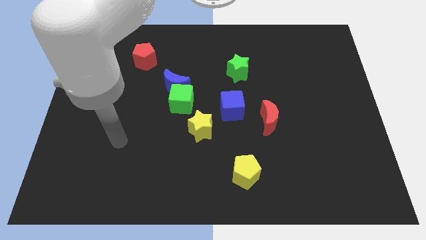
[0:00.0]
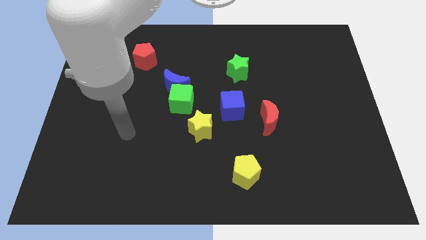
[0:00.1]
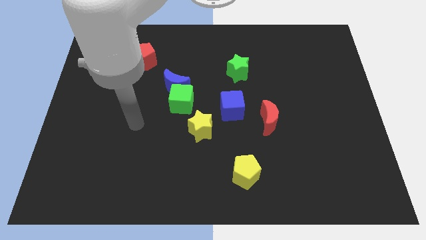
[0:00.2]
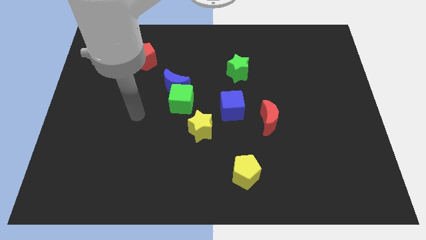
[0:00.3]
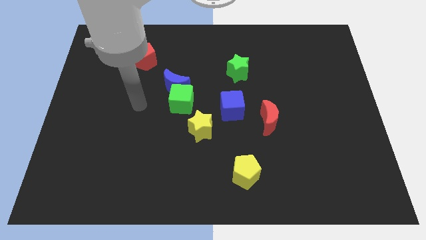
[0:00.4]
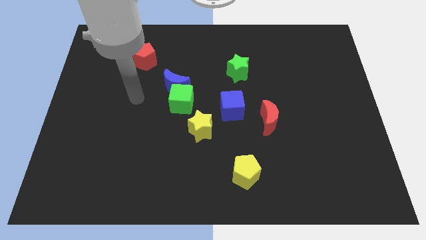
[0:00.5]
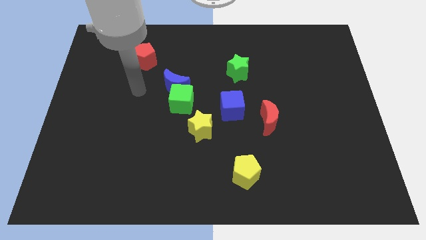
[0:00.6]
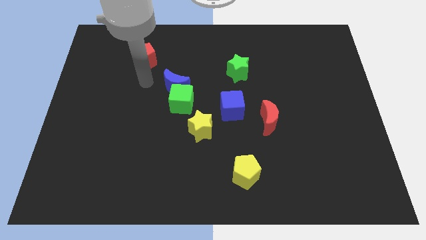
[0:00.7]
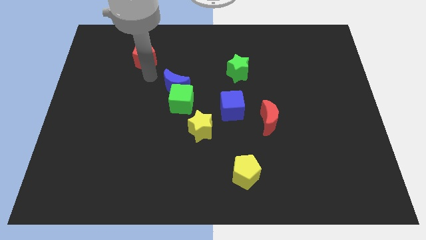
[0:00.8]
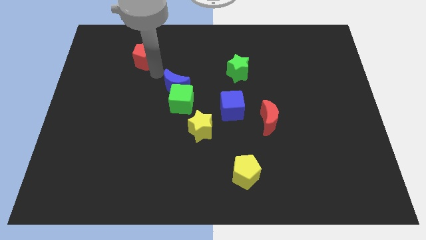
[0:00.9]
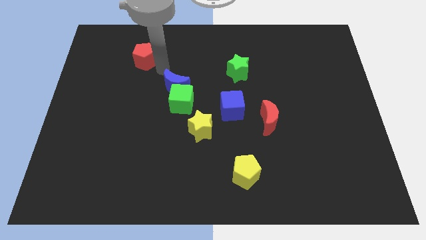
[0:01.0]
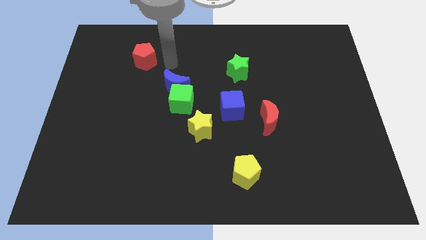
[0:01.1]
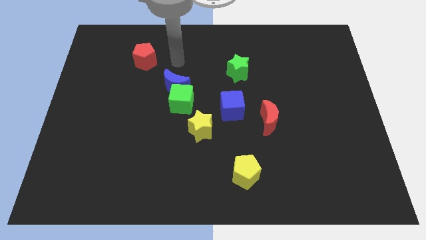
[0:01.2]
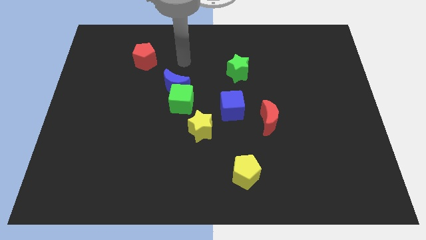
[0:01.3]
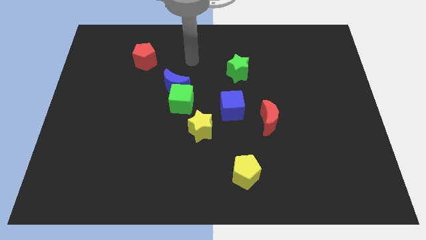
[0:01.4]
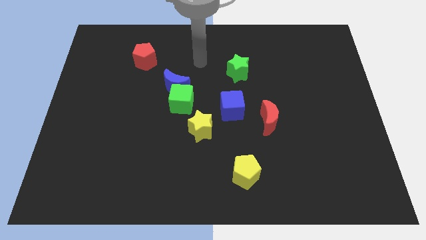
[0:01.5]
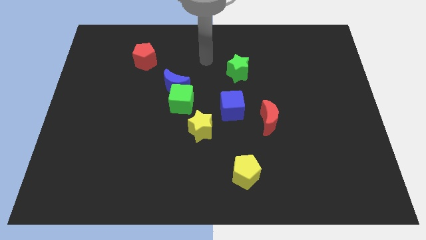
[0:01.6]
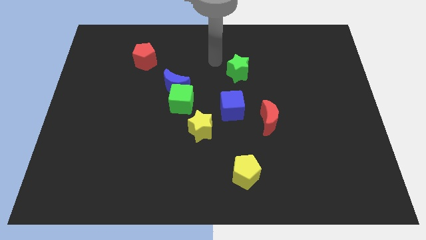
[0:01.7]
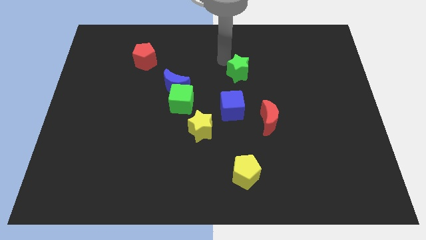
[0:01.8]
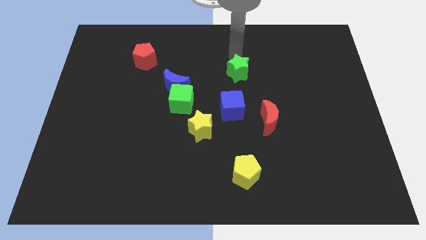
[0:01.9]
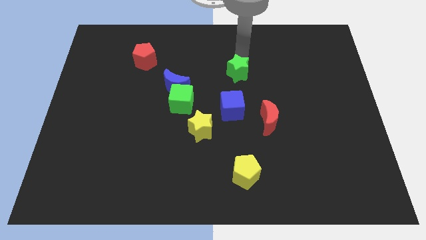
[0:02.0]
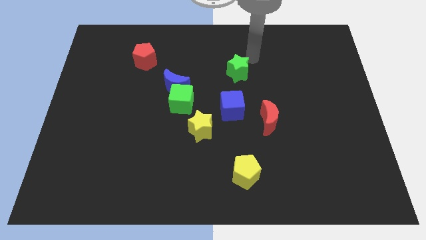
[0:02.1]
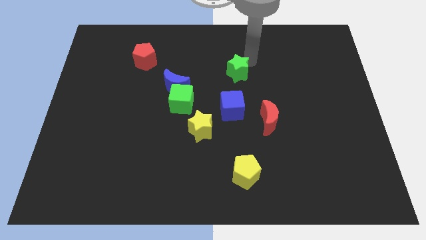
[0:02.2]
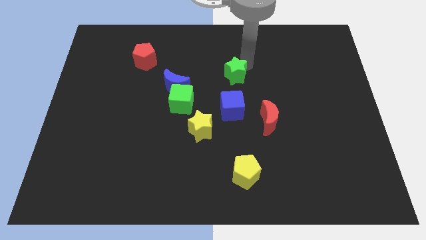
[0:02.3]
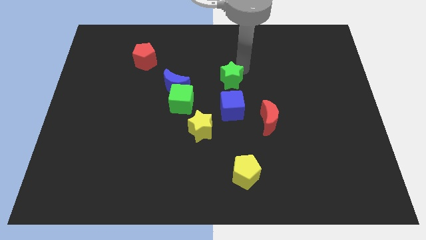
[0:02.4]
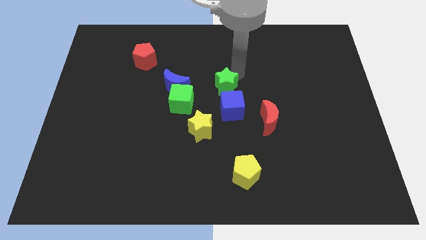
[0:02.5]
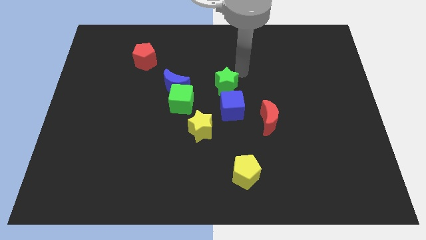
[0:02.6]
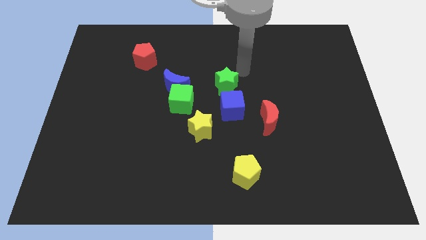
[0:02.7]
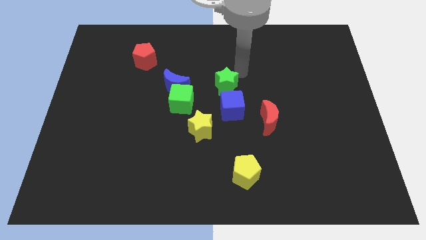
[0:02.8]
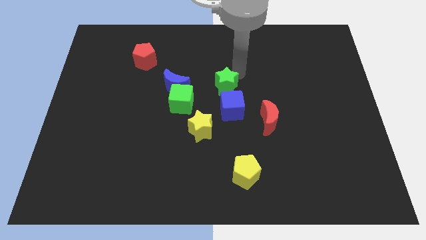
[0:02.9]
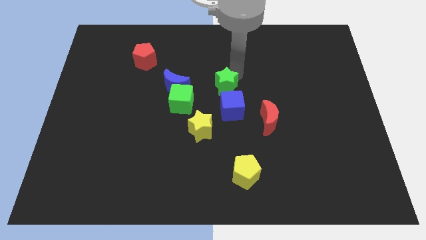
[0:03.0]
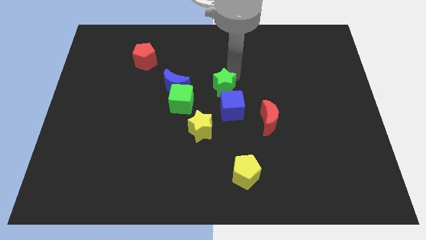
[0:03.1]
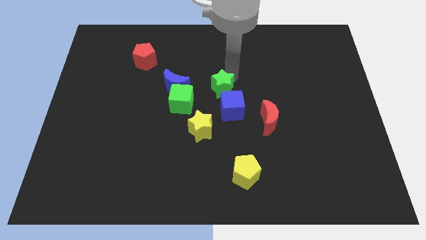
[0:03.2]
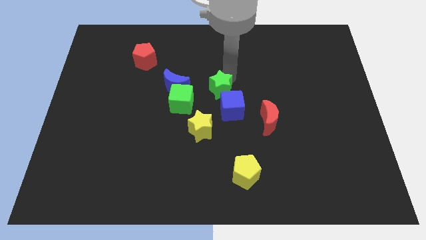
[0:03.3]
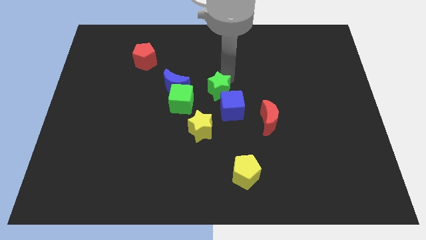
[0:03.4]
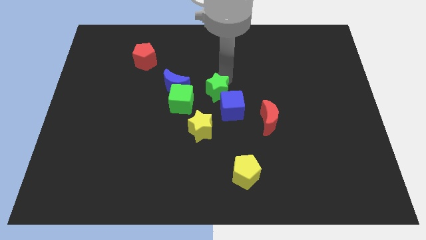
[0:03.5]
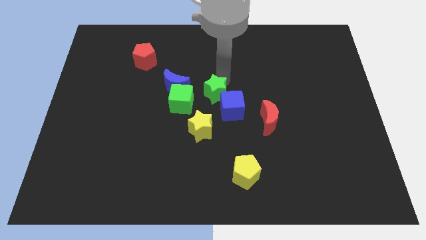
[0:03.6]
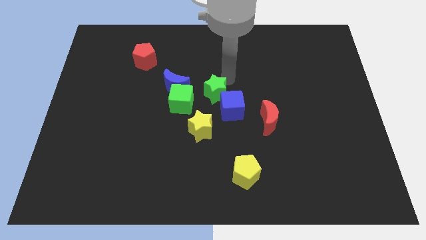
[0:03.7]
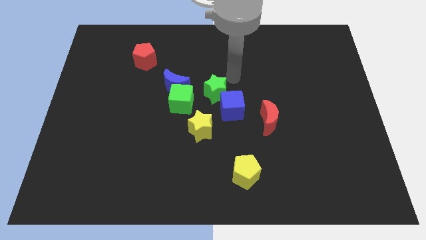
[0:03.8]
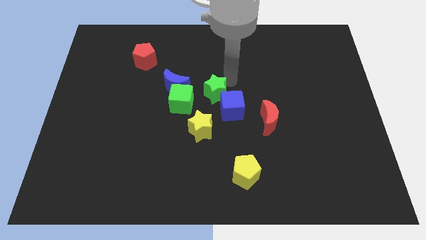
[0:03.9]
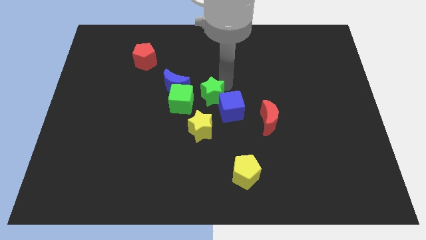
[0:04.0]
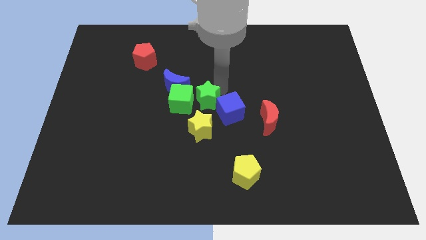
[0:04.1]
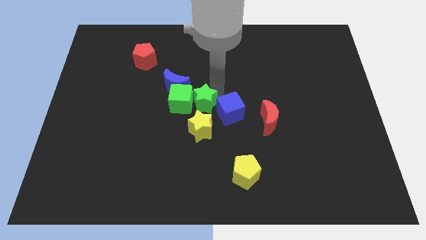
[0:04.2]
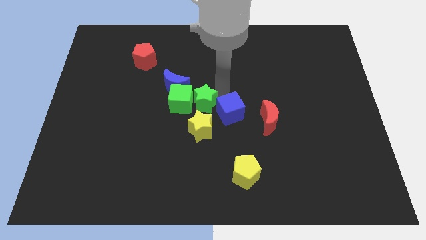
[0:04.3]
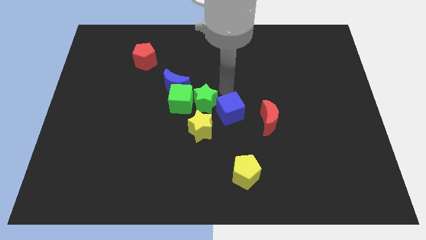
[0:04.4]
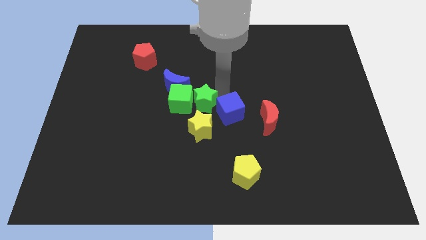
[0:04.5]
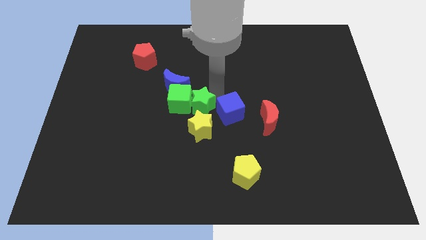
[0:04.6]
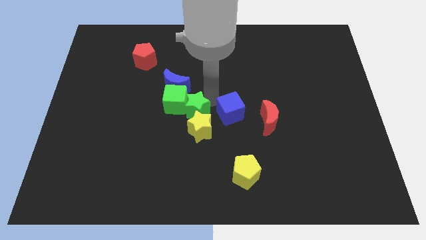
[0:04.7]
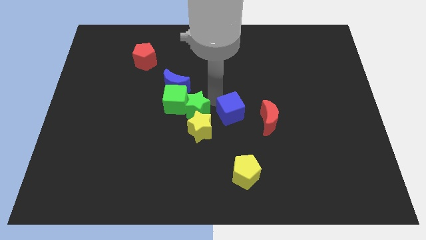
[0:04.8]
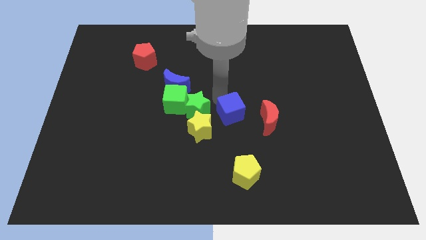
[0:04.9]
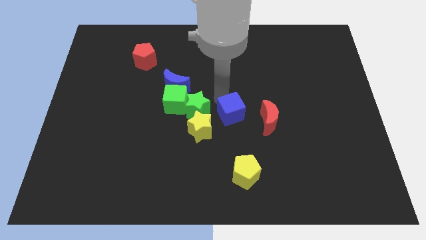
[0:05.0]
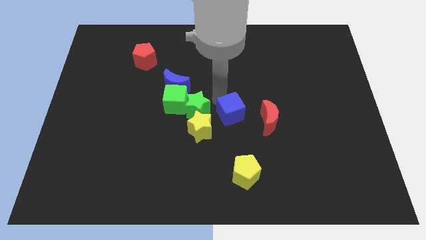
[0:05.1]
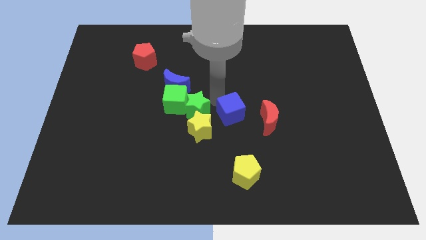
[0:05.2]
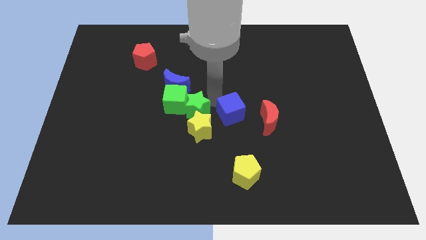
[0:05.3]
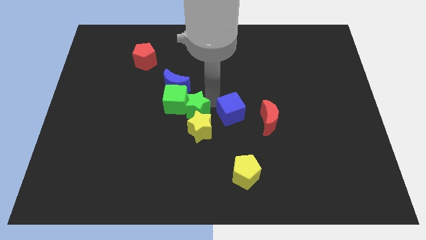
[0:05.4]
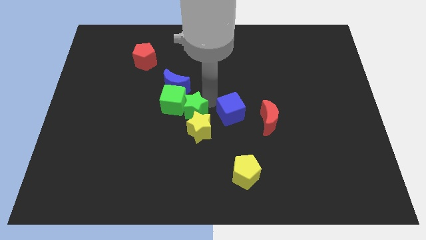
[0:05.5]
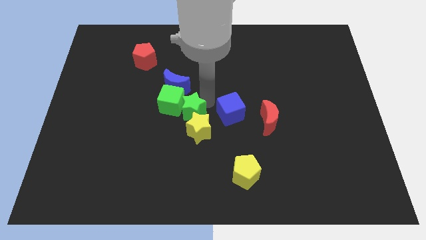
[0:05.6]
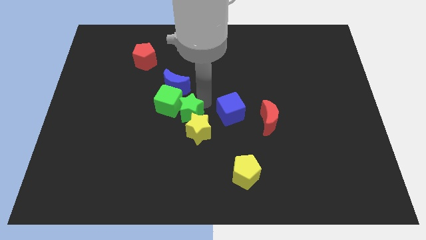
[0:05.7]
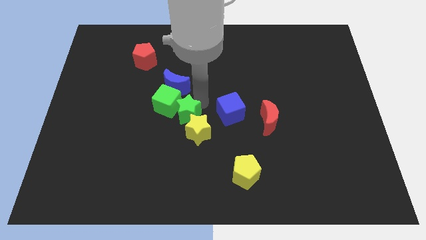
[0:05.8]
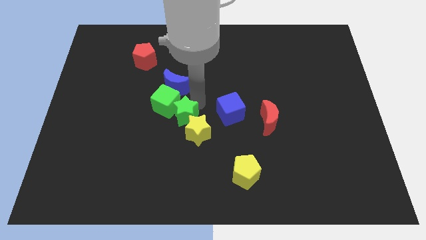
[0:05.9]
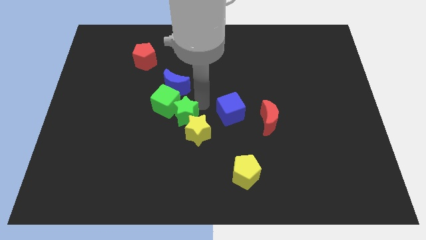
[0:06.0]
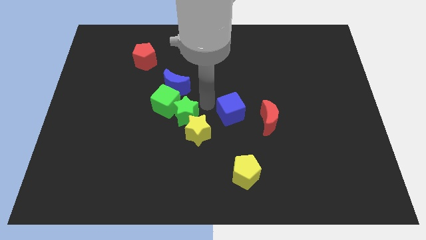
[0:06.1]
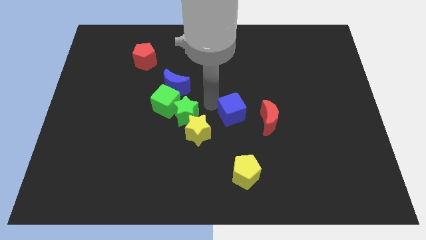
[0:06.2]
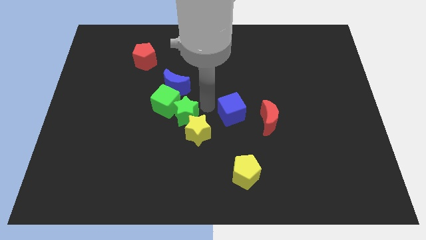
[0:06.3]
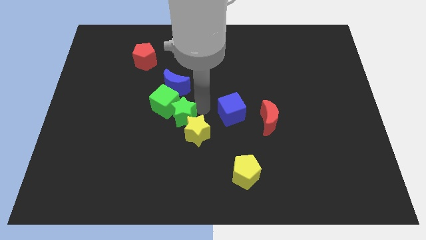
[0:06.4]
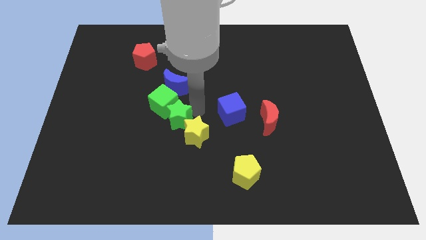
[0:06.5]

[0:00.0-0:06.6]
slide the green star to the left side of the yellow star
